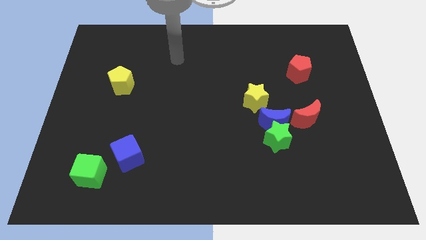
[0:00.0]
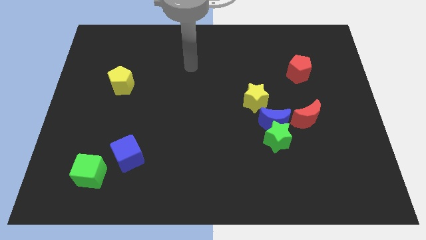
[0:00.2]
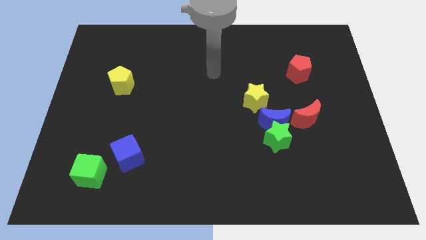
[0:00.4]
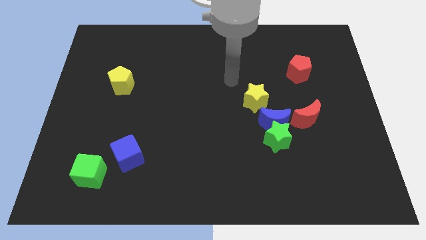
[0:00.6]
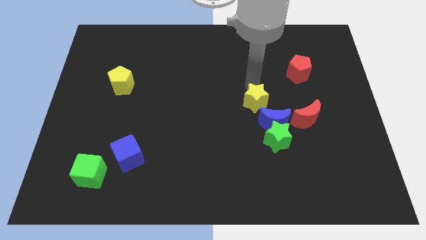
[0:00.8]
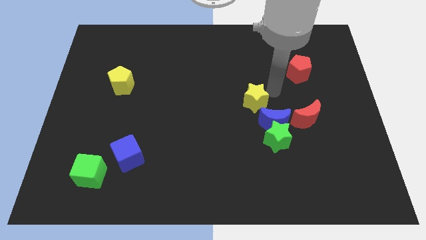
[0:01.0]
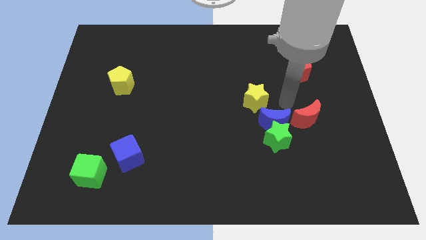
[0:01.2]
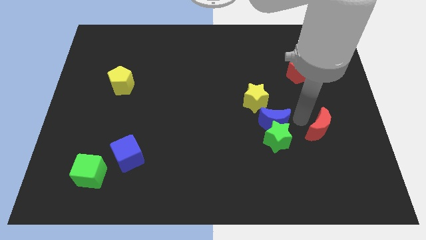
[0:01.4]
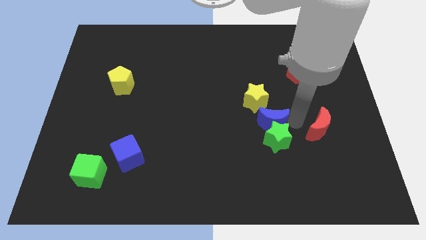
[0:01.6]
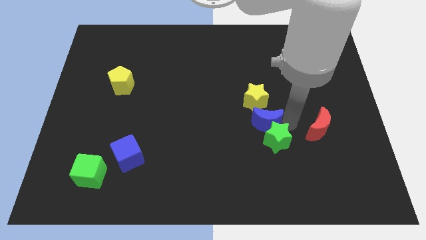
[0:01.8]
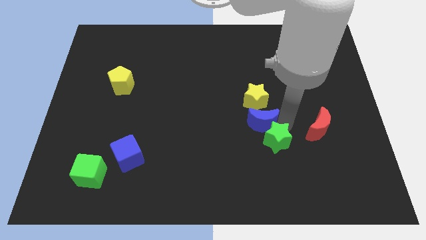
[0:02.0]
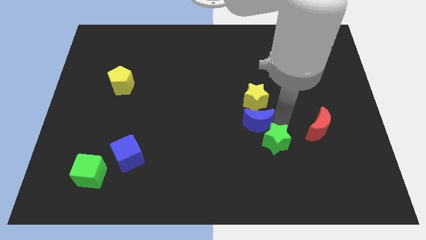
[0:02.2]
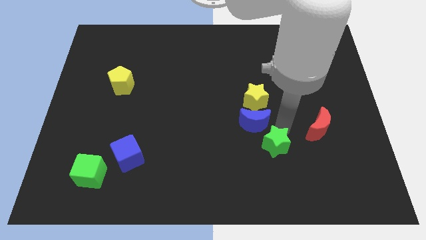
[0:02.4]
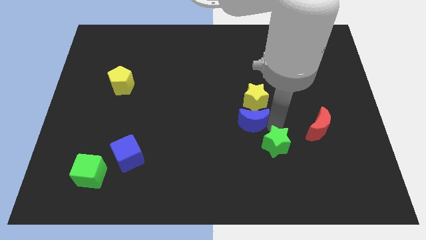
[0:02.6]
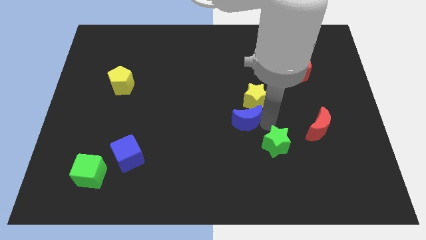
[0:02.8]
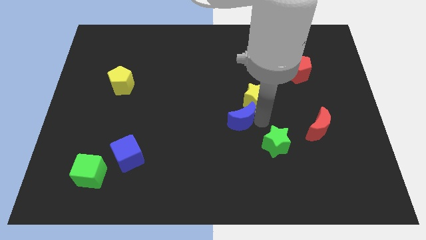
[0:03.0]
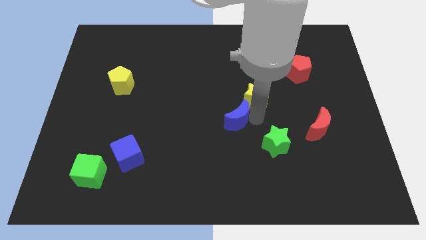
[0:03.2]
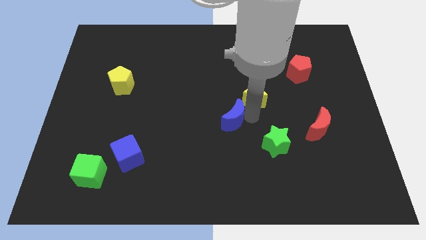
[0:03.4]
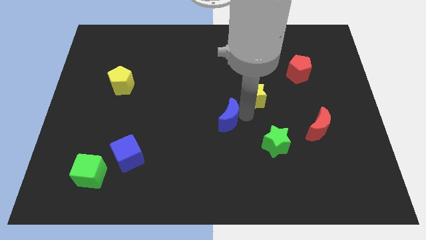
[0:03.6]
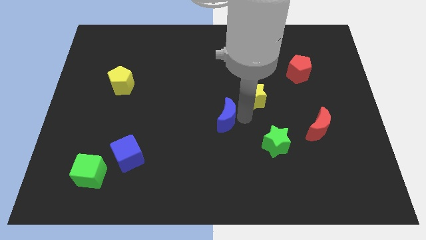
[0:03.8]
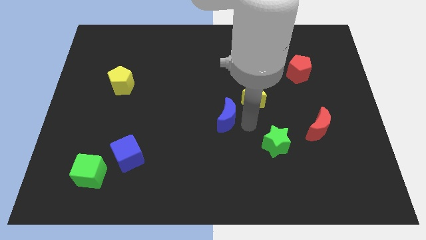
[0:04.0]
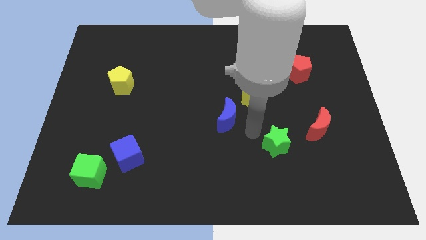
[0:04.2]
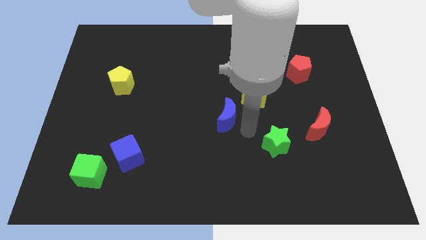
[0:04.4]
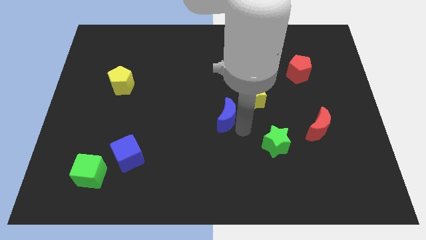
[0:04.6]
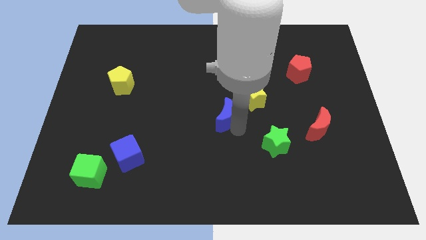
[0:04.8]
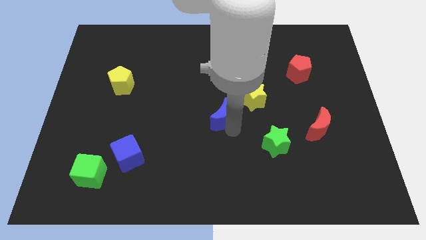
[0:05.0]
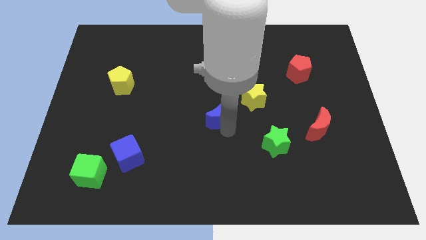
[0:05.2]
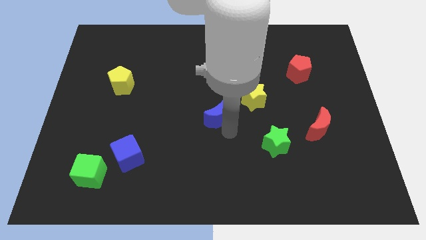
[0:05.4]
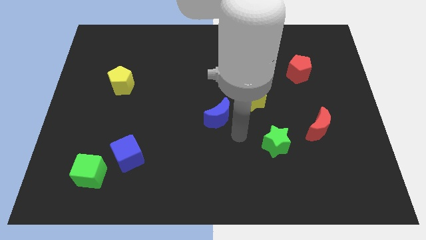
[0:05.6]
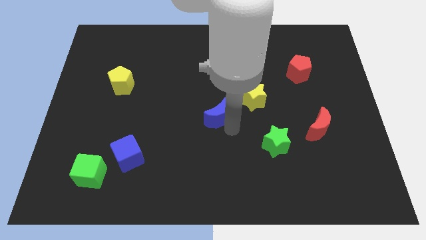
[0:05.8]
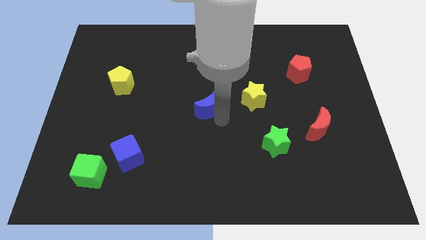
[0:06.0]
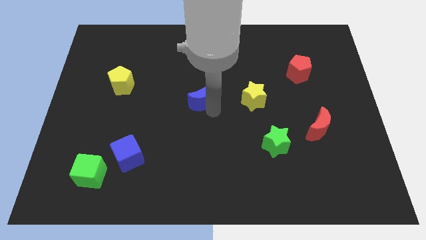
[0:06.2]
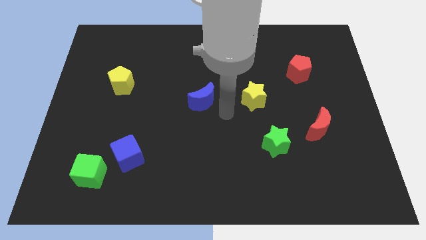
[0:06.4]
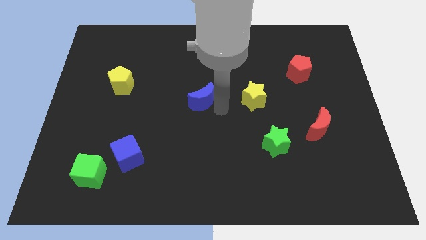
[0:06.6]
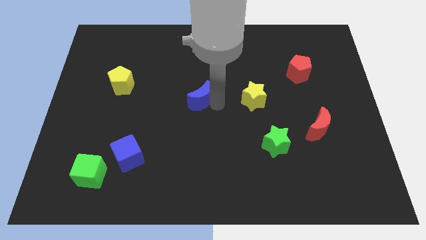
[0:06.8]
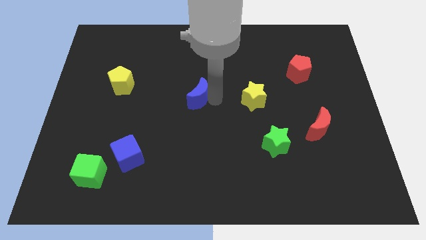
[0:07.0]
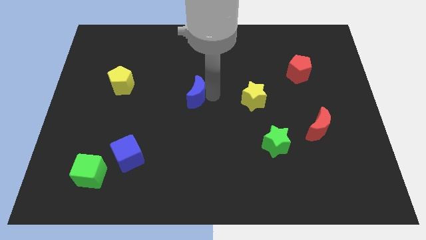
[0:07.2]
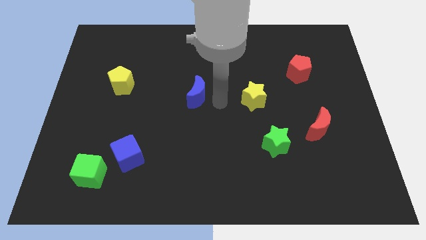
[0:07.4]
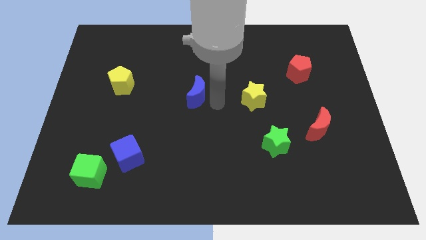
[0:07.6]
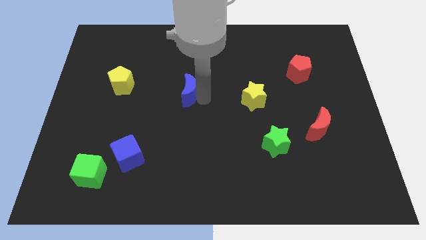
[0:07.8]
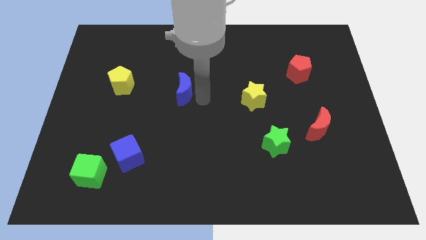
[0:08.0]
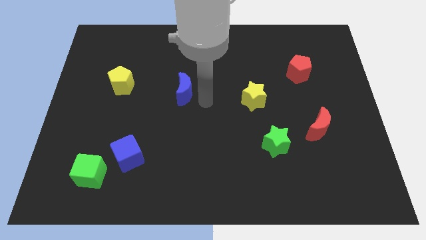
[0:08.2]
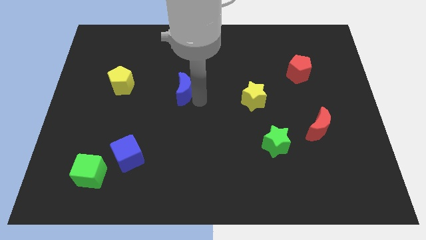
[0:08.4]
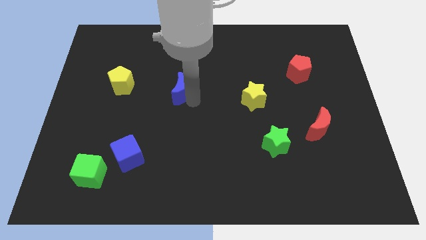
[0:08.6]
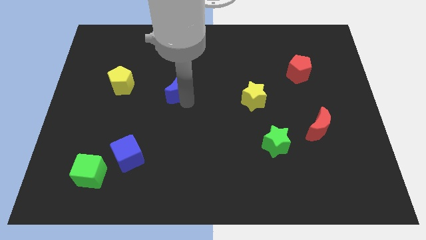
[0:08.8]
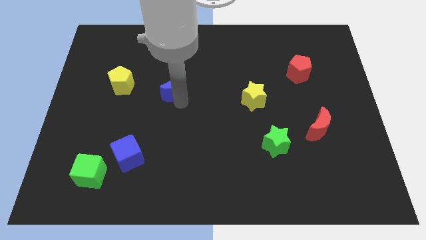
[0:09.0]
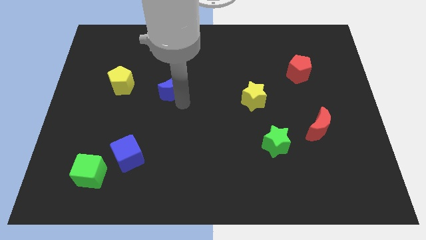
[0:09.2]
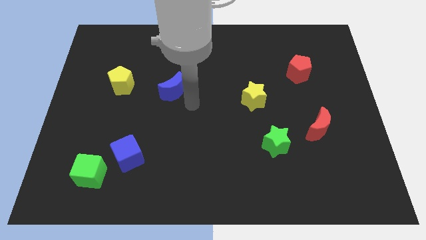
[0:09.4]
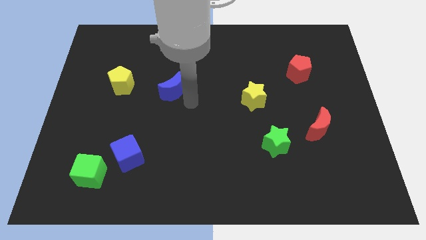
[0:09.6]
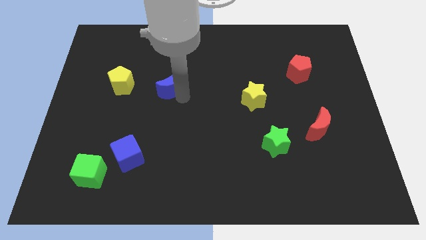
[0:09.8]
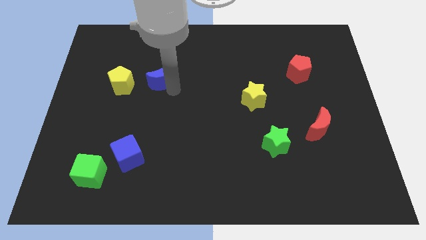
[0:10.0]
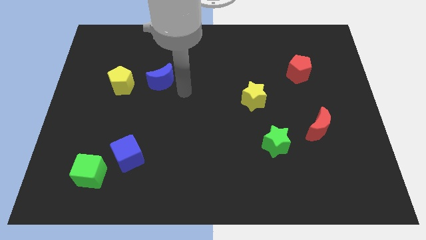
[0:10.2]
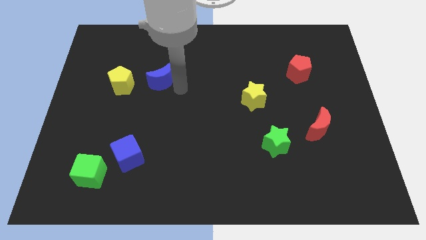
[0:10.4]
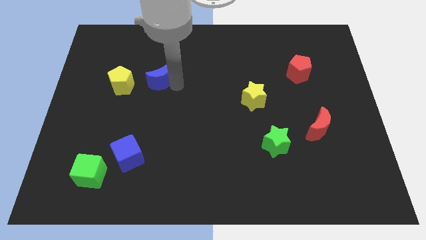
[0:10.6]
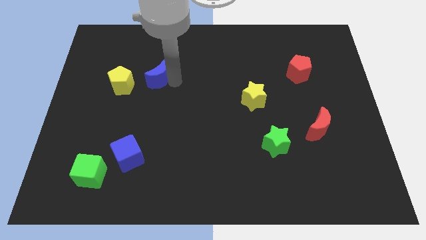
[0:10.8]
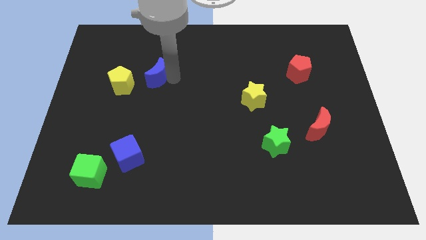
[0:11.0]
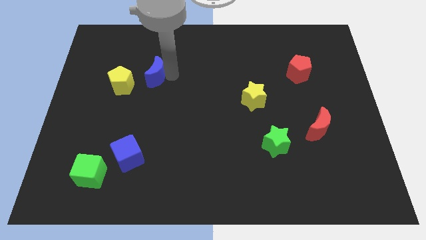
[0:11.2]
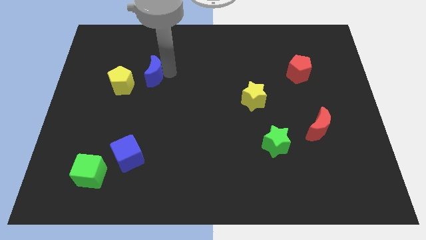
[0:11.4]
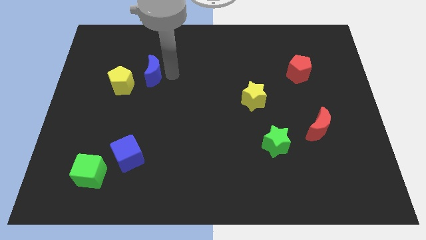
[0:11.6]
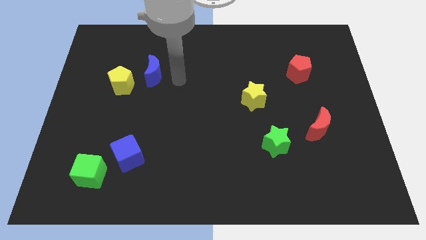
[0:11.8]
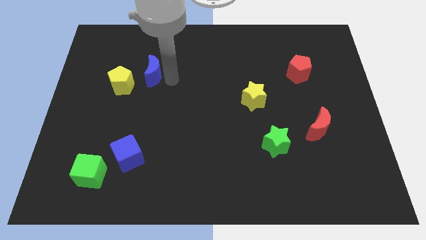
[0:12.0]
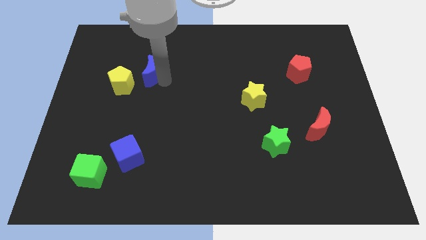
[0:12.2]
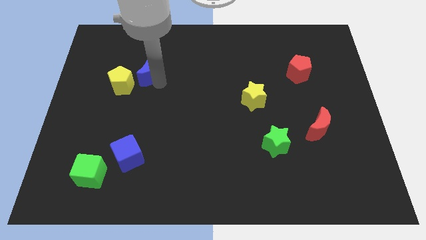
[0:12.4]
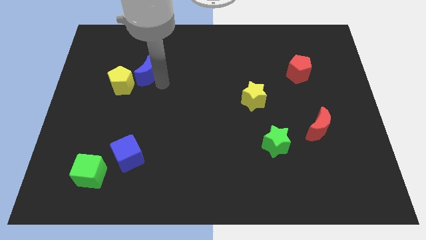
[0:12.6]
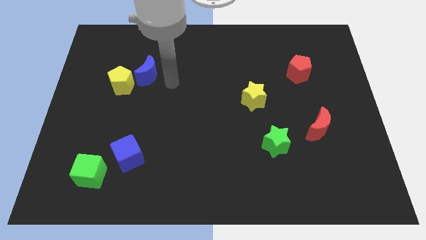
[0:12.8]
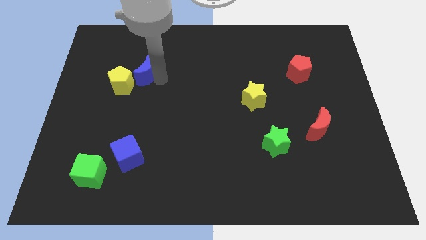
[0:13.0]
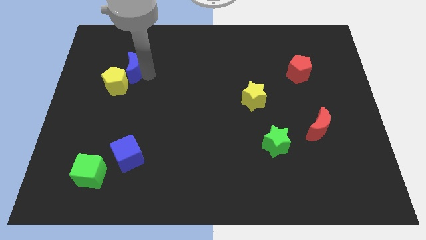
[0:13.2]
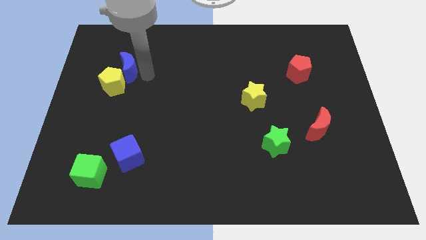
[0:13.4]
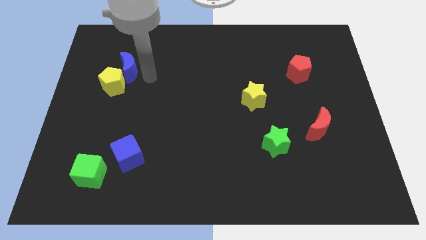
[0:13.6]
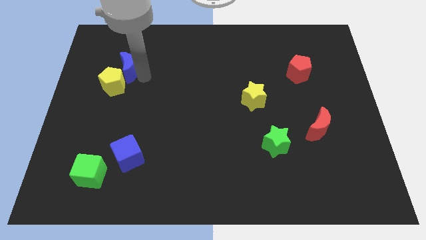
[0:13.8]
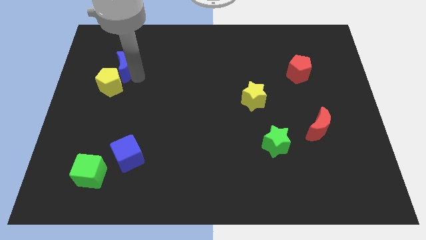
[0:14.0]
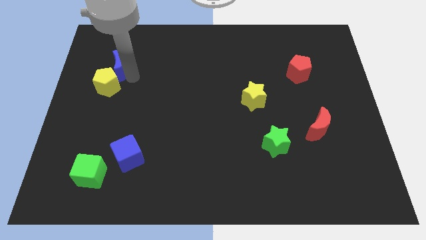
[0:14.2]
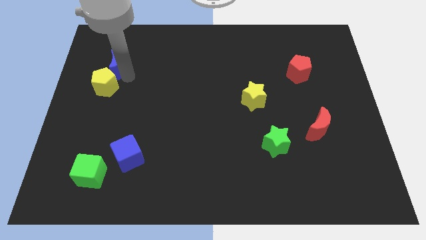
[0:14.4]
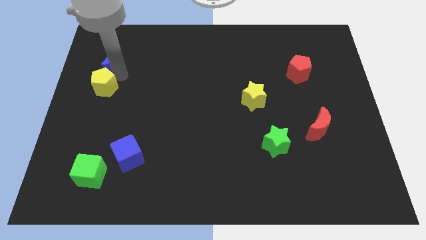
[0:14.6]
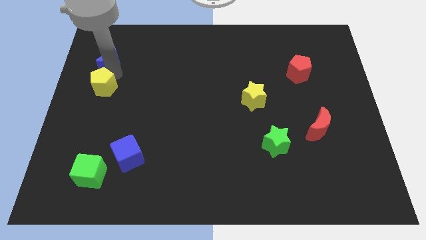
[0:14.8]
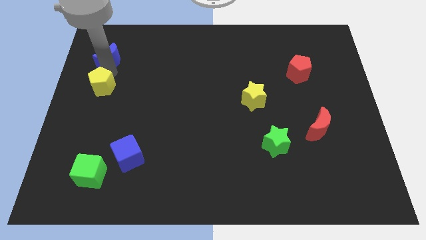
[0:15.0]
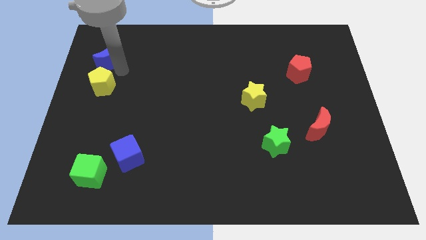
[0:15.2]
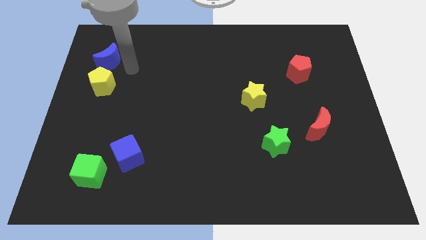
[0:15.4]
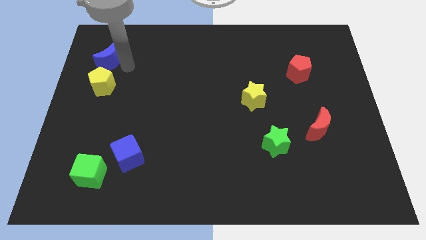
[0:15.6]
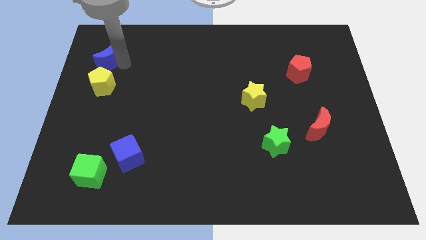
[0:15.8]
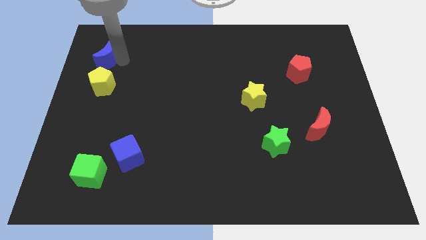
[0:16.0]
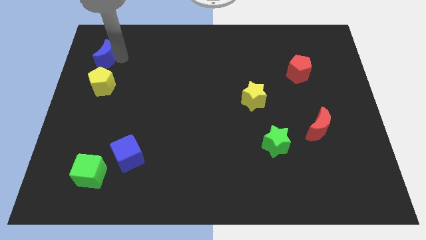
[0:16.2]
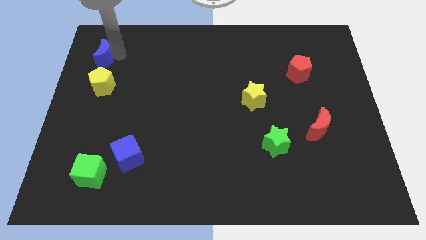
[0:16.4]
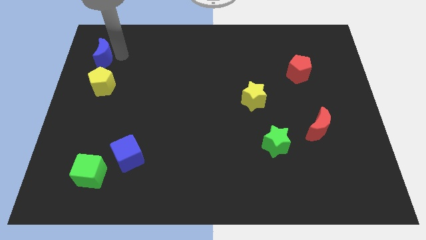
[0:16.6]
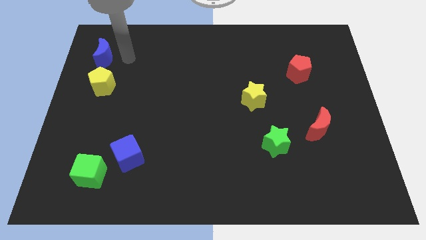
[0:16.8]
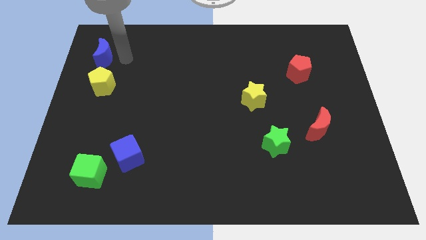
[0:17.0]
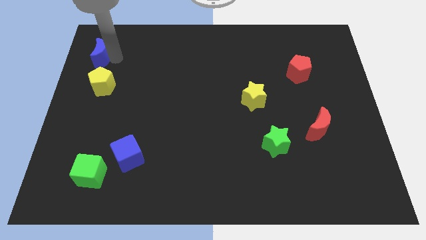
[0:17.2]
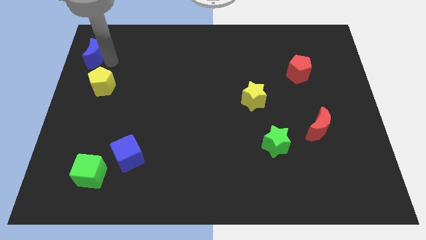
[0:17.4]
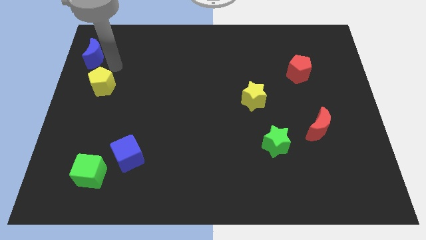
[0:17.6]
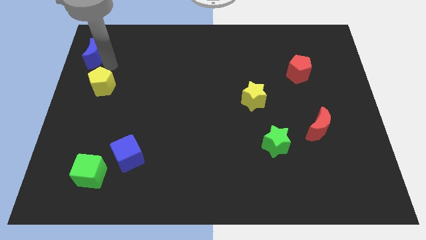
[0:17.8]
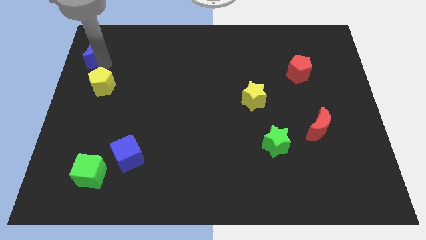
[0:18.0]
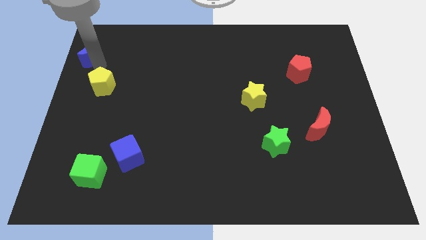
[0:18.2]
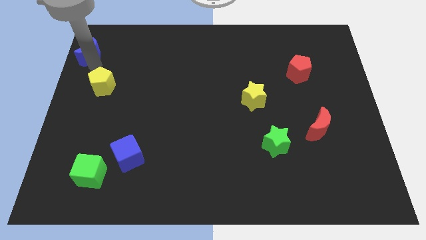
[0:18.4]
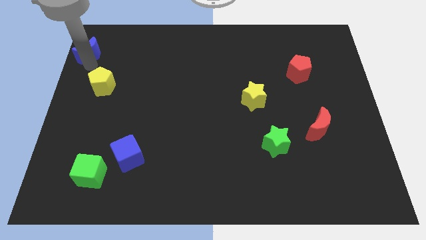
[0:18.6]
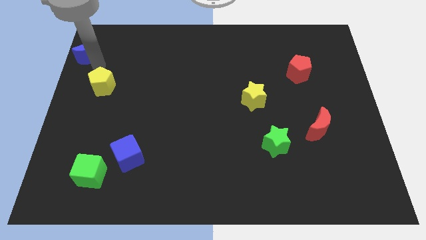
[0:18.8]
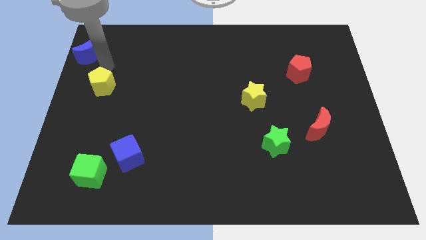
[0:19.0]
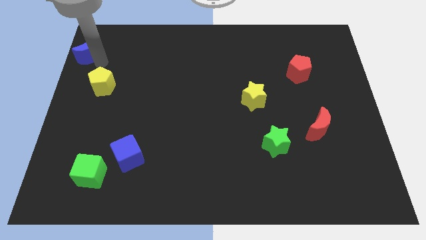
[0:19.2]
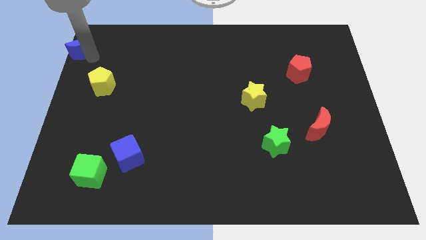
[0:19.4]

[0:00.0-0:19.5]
move the blue moon to the top left
